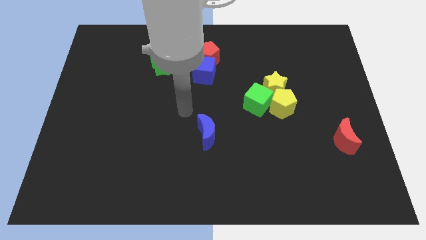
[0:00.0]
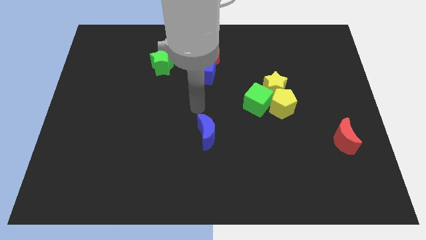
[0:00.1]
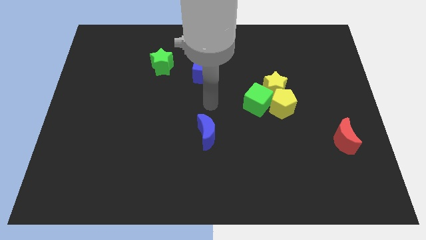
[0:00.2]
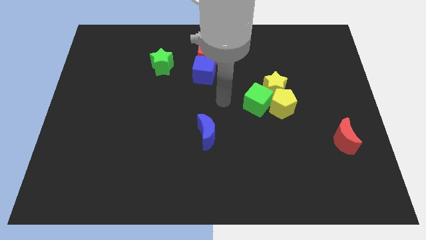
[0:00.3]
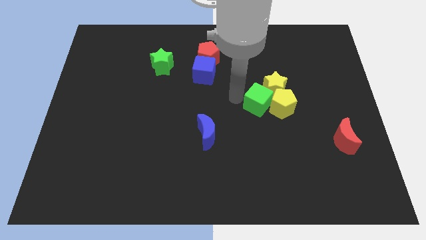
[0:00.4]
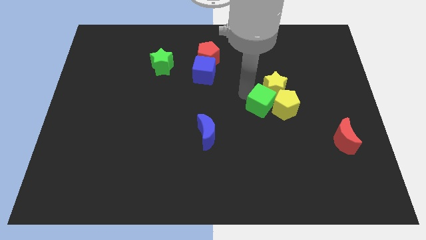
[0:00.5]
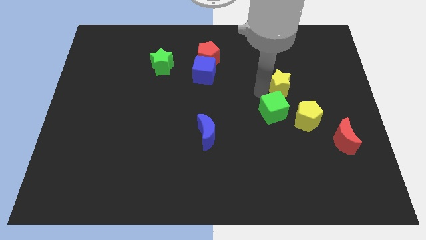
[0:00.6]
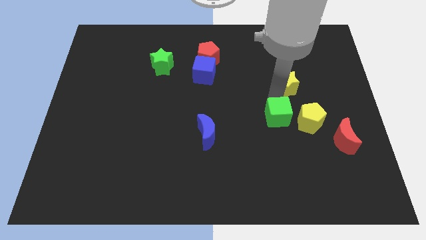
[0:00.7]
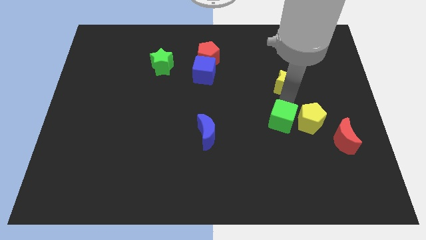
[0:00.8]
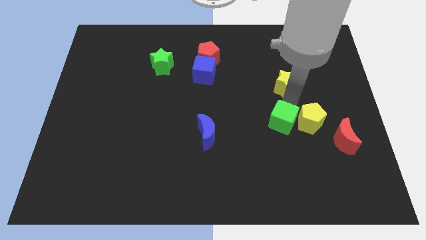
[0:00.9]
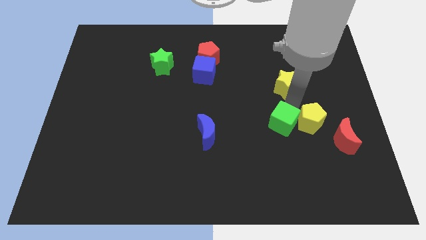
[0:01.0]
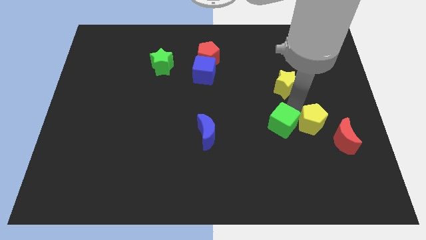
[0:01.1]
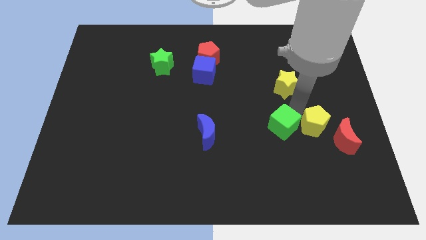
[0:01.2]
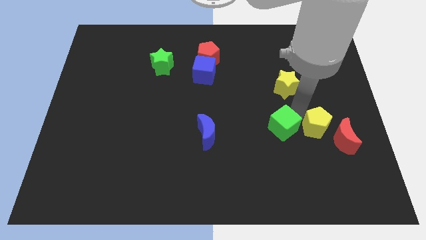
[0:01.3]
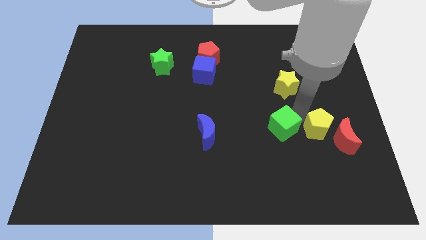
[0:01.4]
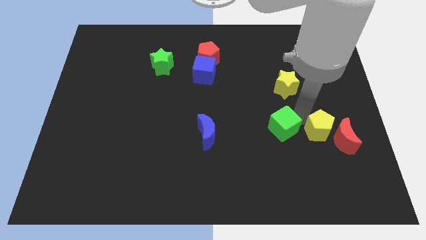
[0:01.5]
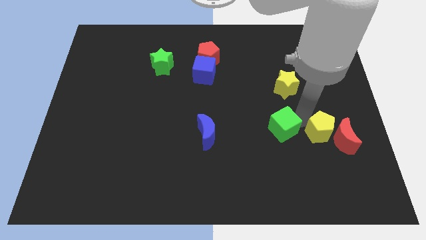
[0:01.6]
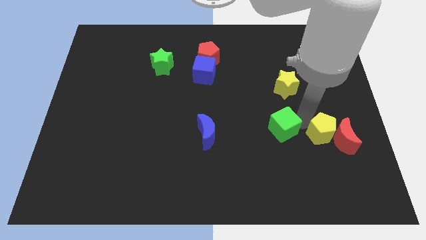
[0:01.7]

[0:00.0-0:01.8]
pull the yellow pentagon apart from the yellow star and green cube

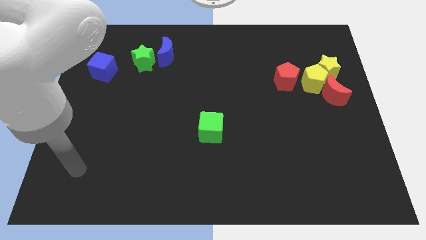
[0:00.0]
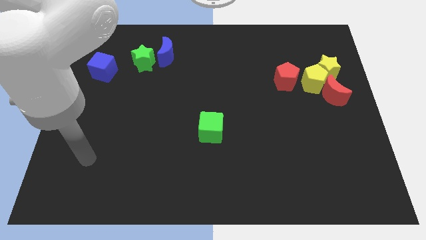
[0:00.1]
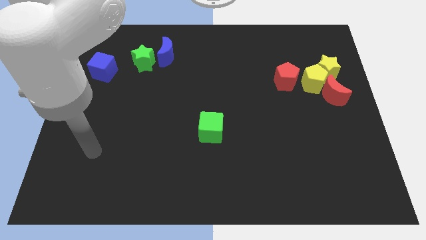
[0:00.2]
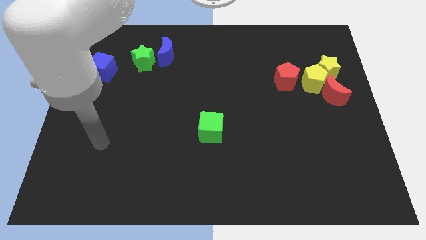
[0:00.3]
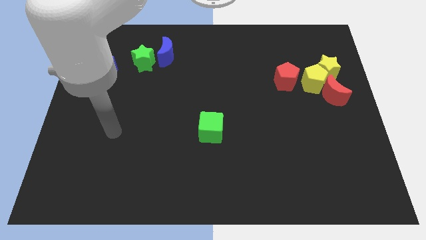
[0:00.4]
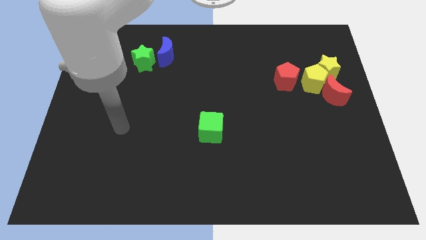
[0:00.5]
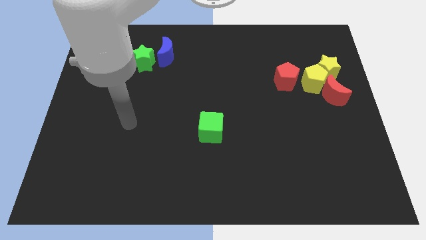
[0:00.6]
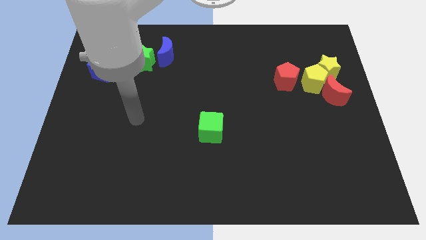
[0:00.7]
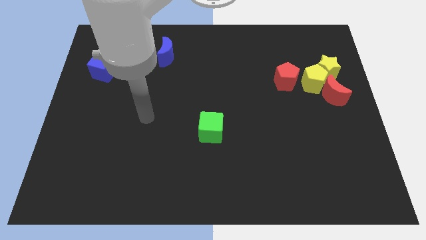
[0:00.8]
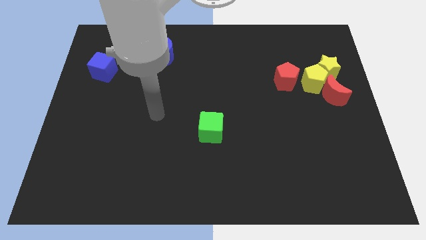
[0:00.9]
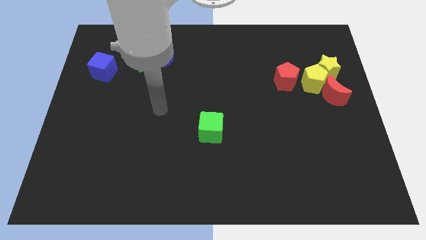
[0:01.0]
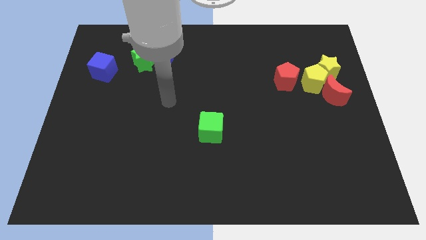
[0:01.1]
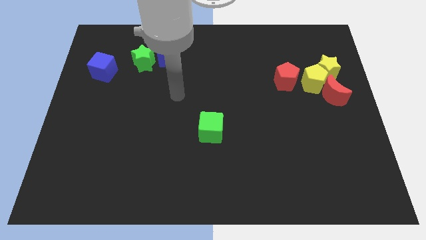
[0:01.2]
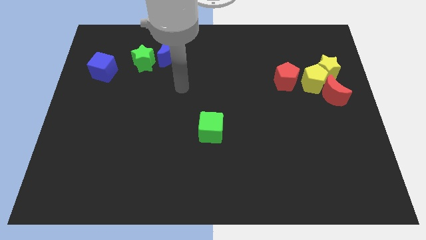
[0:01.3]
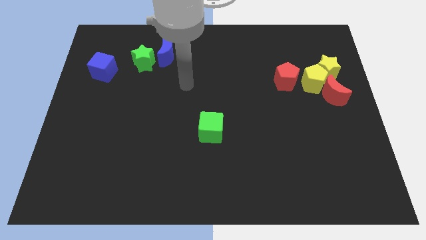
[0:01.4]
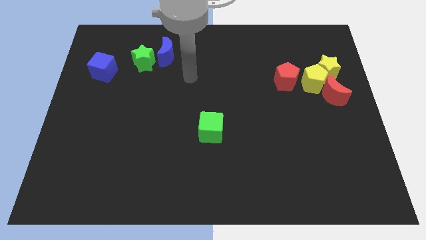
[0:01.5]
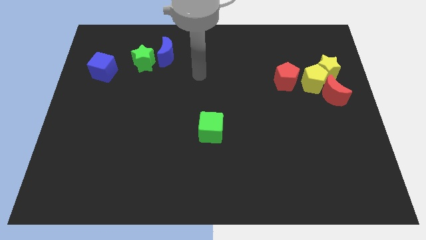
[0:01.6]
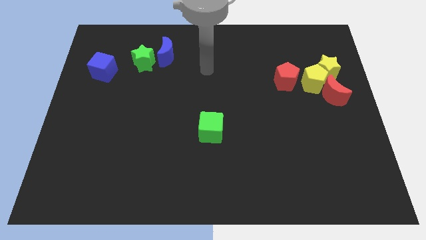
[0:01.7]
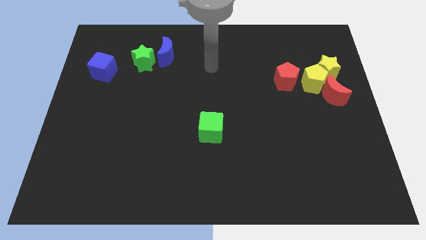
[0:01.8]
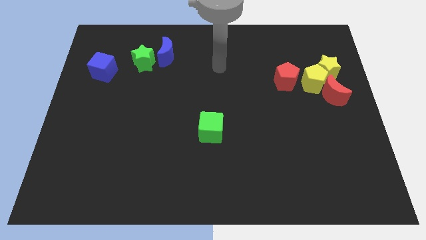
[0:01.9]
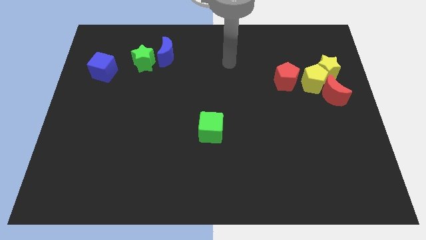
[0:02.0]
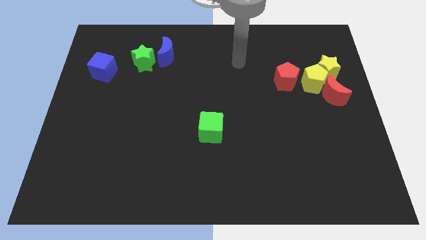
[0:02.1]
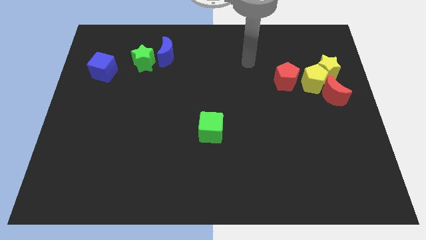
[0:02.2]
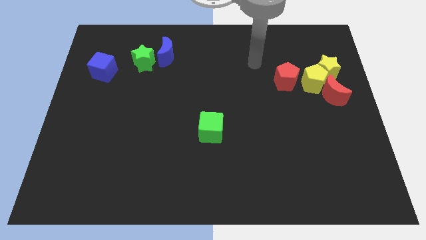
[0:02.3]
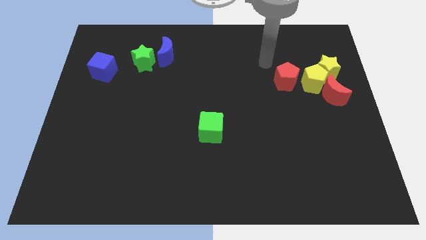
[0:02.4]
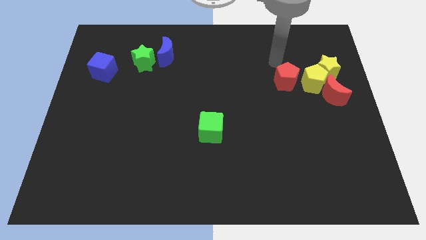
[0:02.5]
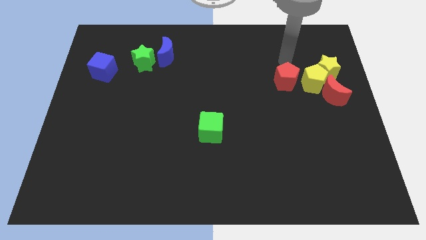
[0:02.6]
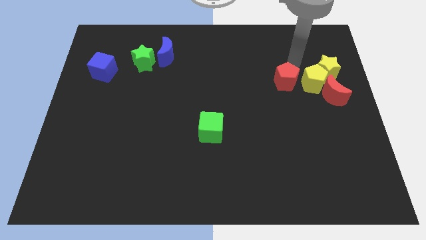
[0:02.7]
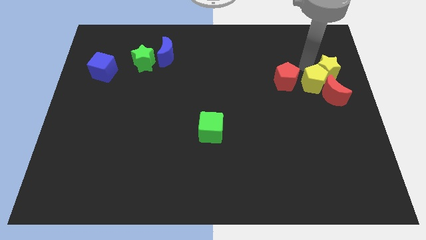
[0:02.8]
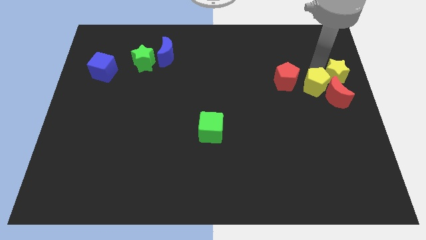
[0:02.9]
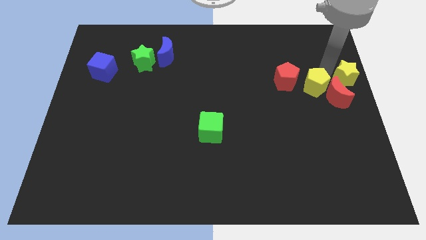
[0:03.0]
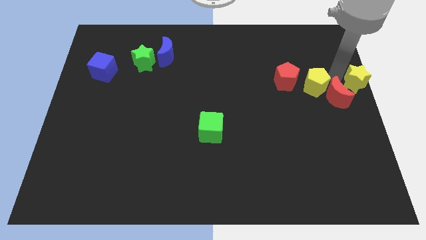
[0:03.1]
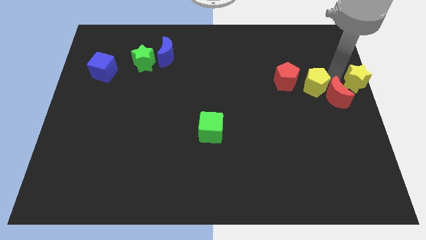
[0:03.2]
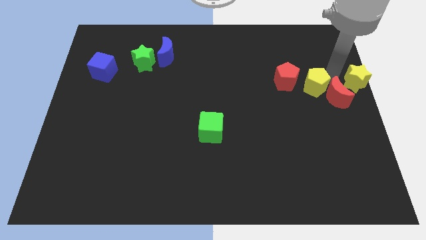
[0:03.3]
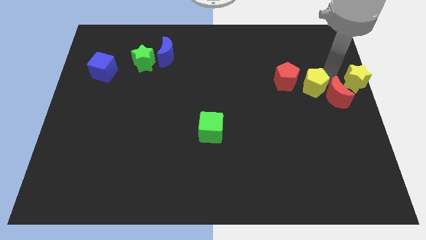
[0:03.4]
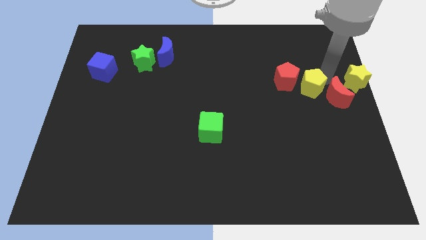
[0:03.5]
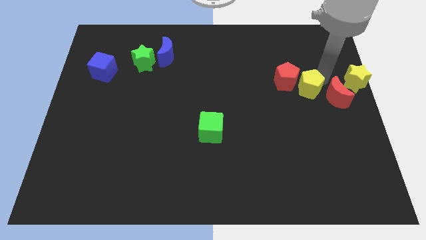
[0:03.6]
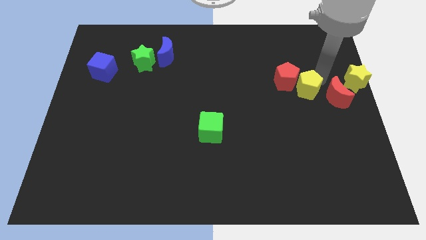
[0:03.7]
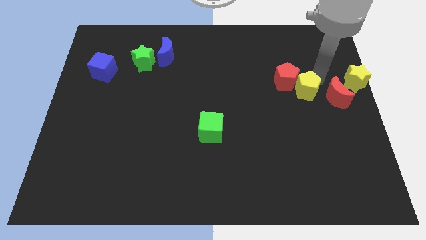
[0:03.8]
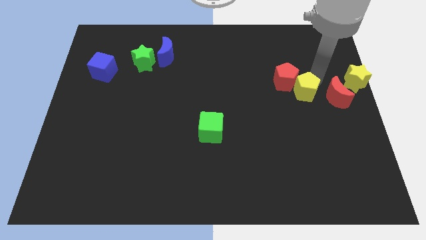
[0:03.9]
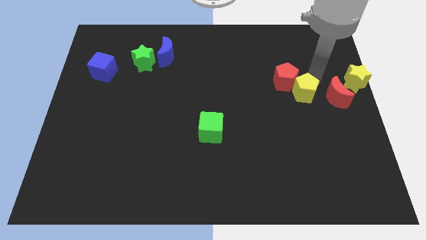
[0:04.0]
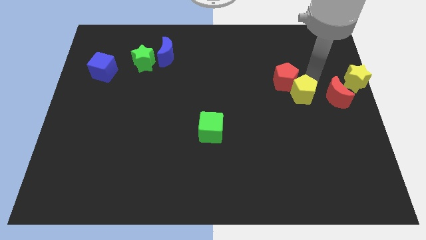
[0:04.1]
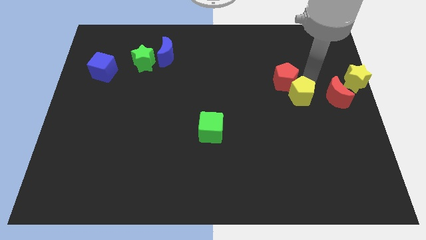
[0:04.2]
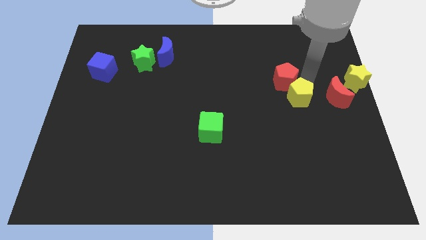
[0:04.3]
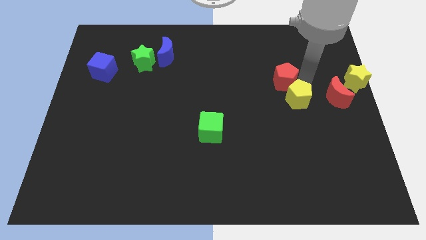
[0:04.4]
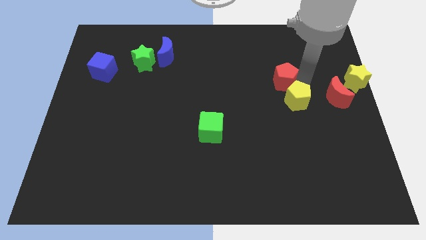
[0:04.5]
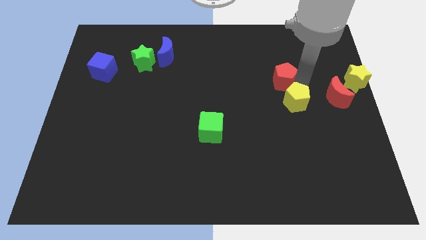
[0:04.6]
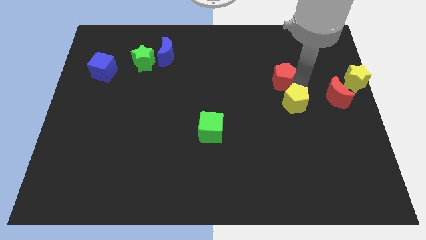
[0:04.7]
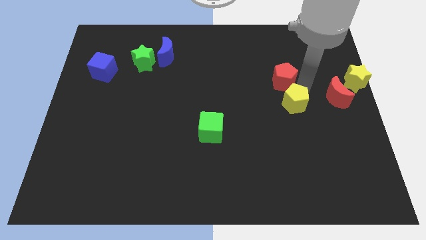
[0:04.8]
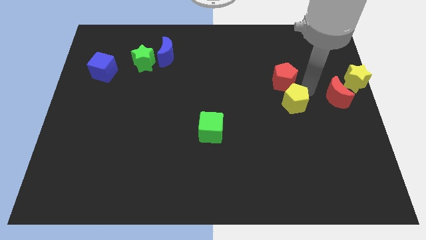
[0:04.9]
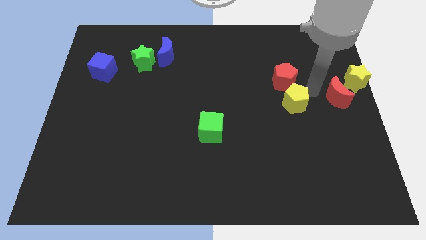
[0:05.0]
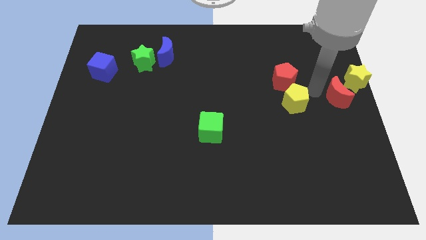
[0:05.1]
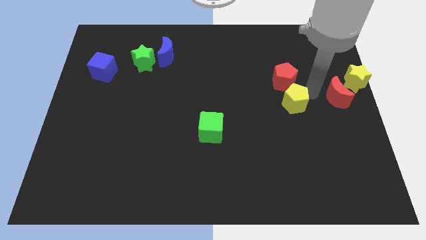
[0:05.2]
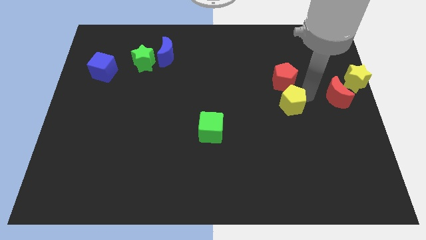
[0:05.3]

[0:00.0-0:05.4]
pull the yellow pentagon apart from the yellow star, red moon, and red pentagon

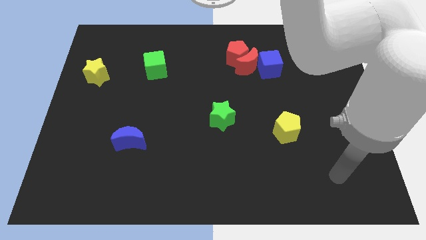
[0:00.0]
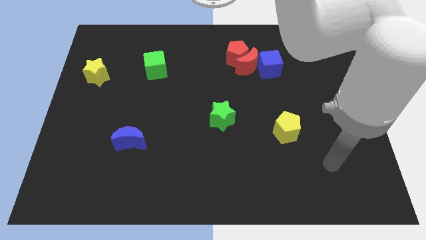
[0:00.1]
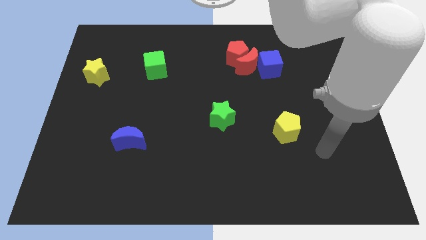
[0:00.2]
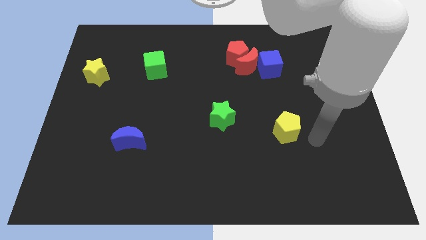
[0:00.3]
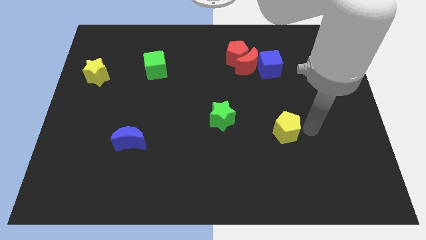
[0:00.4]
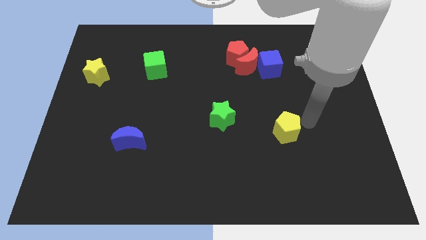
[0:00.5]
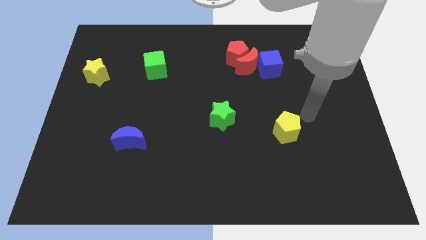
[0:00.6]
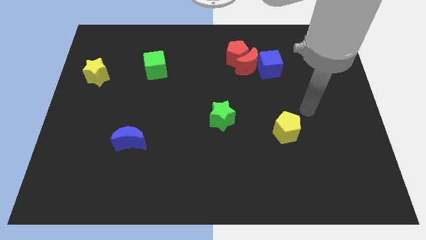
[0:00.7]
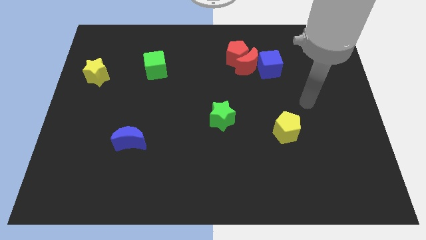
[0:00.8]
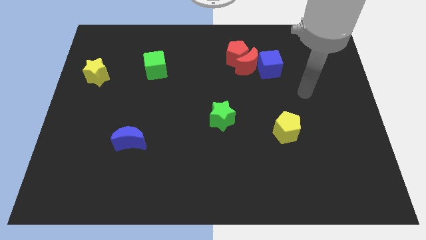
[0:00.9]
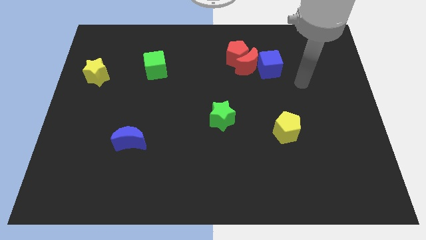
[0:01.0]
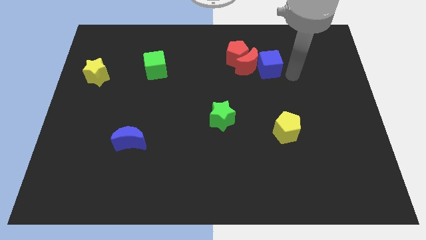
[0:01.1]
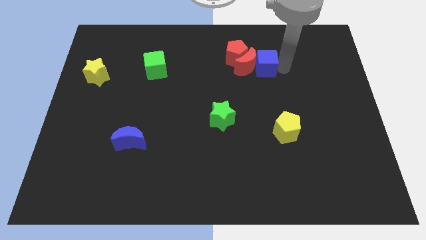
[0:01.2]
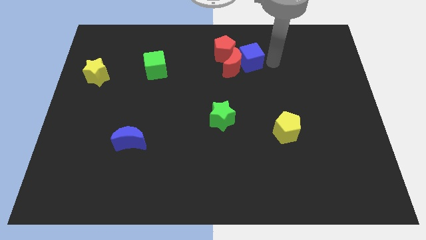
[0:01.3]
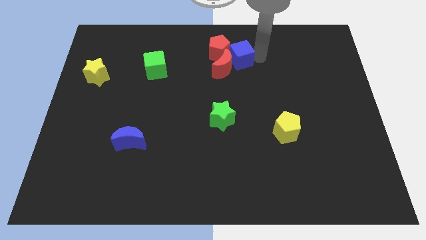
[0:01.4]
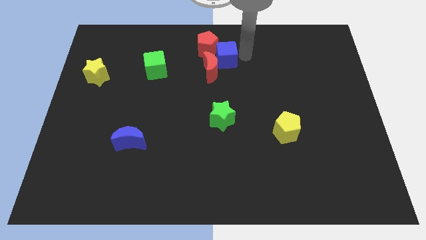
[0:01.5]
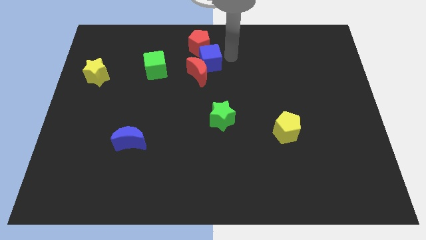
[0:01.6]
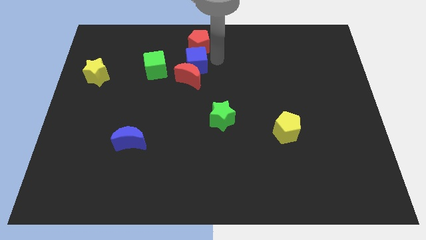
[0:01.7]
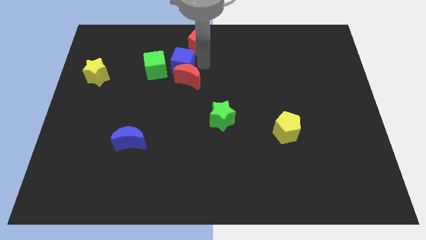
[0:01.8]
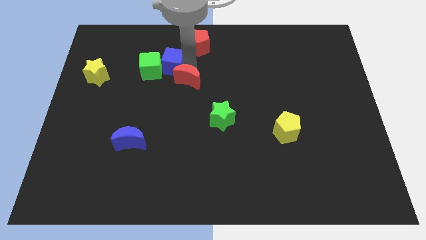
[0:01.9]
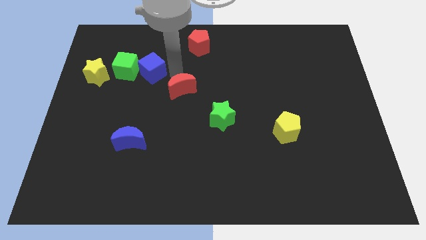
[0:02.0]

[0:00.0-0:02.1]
separate the red moon from the red pentagon and blue cube

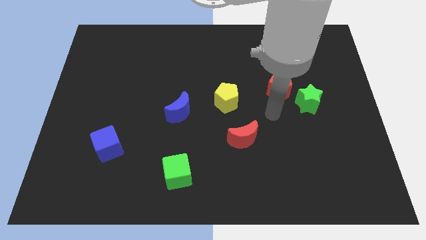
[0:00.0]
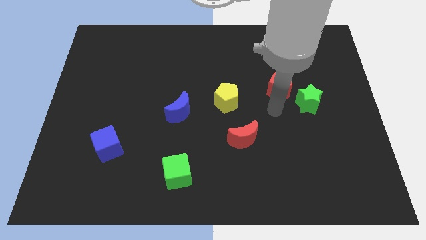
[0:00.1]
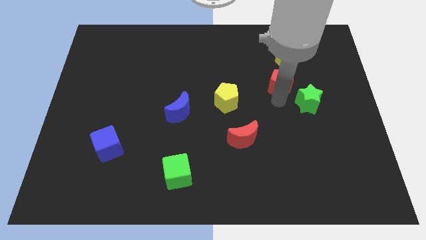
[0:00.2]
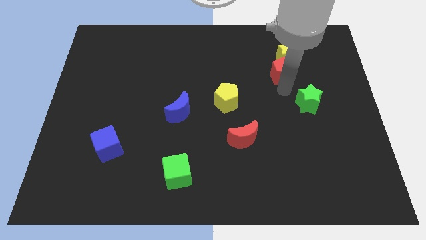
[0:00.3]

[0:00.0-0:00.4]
separate the green star from the red pentagon
